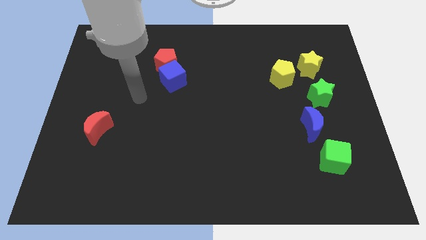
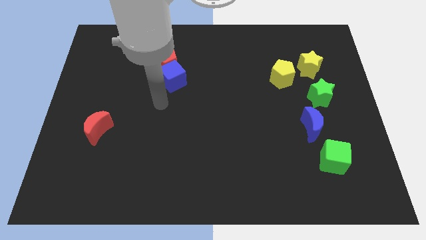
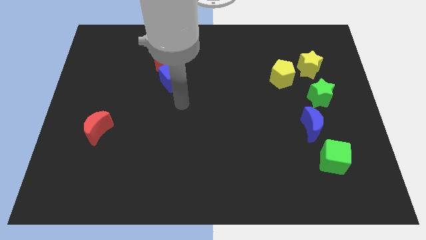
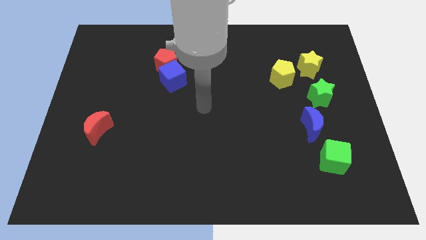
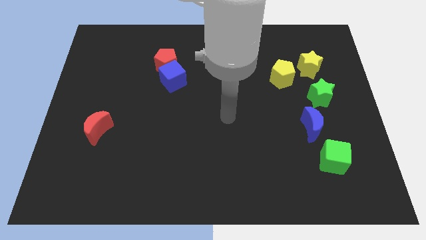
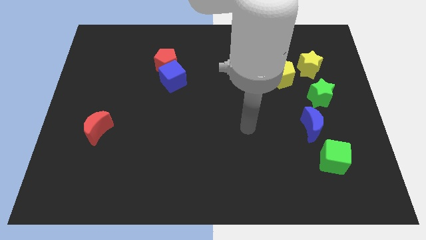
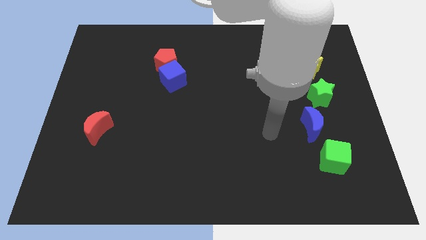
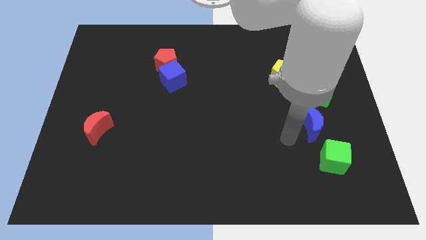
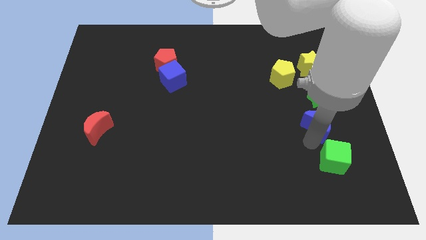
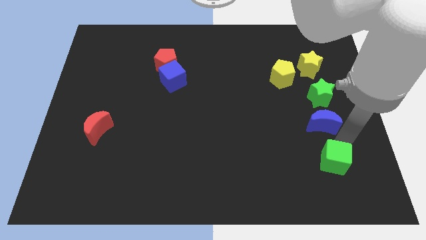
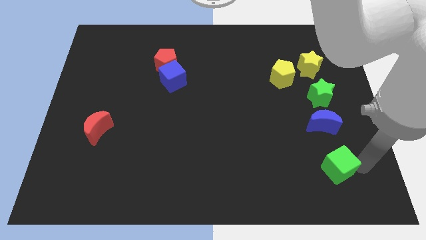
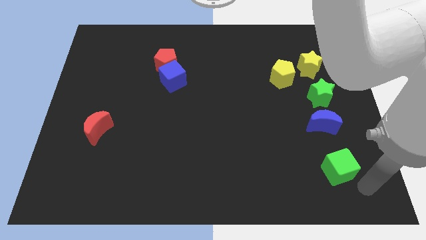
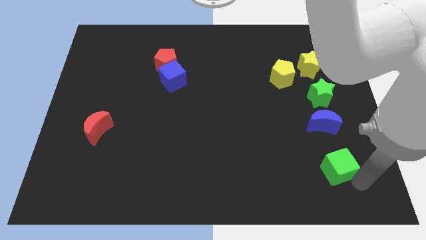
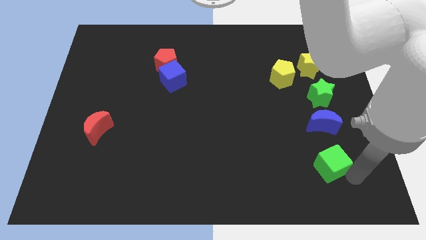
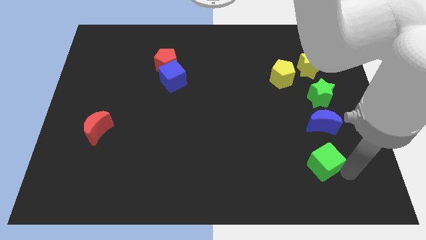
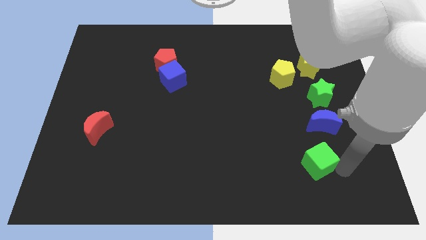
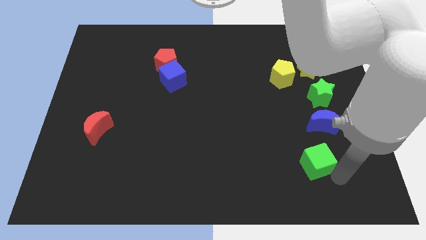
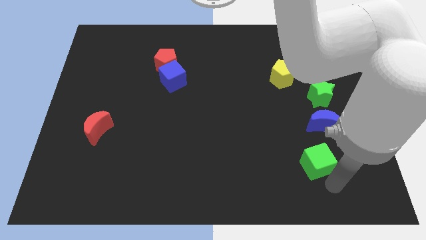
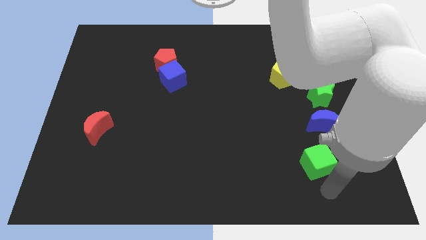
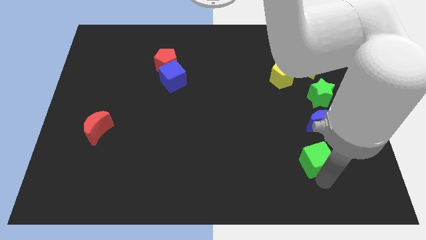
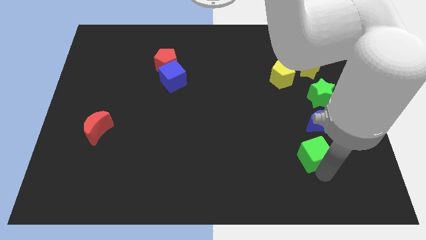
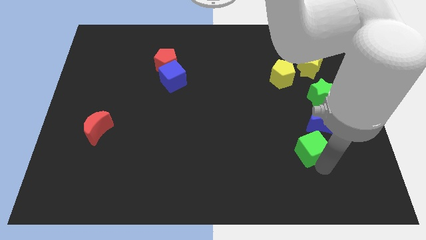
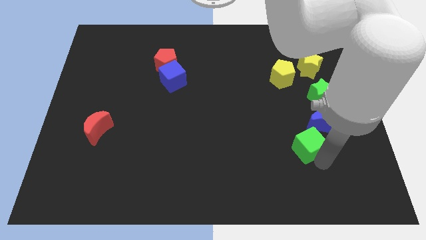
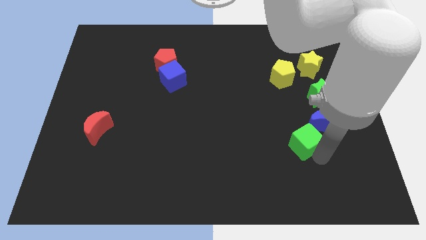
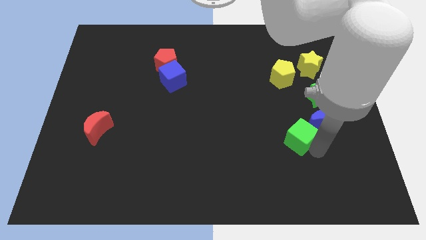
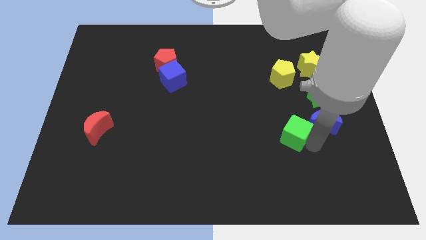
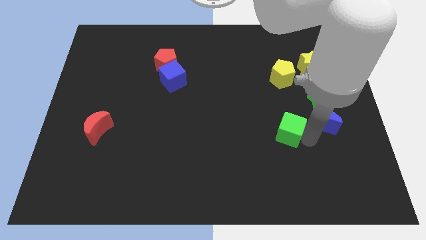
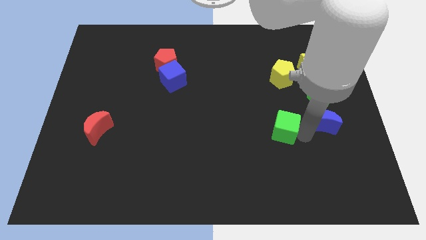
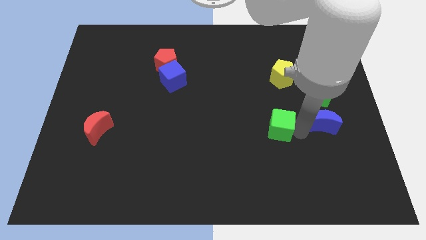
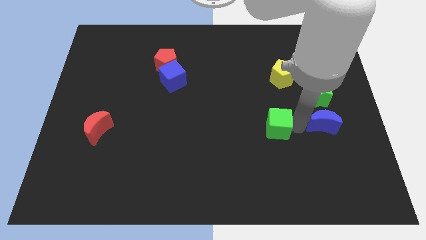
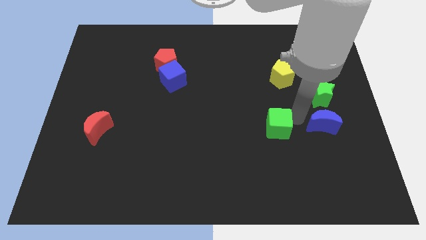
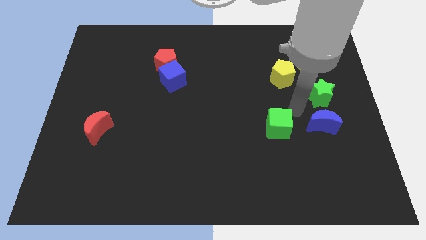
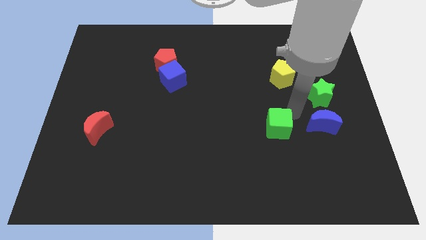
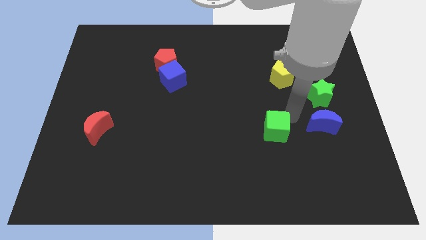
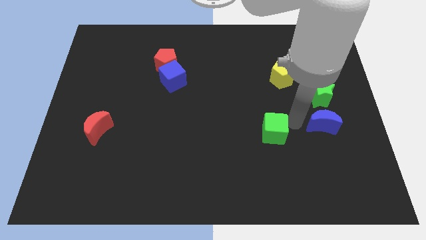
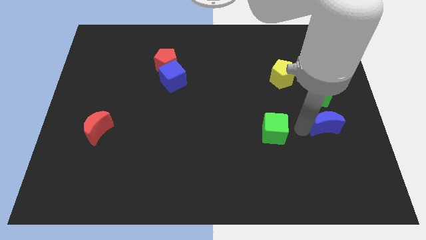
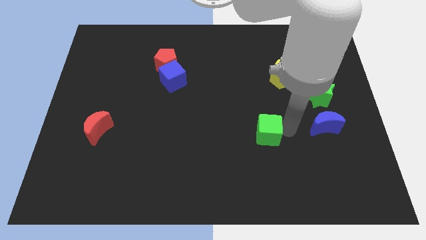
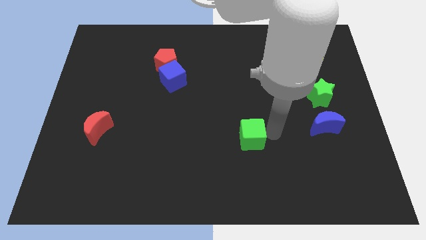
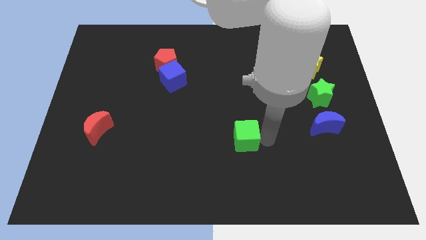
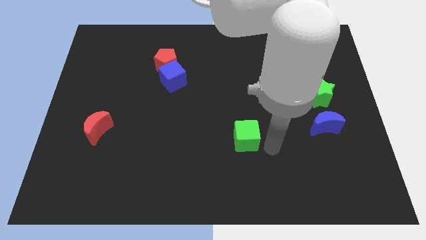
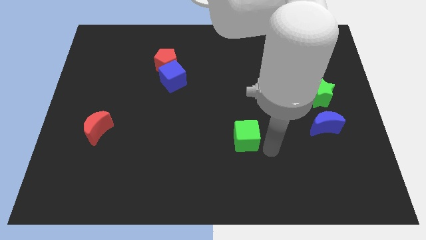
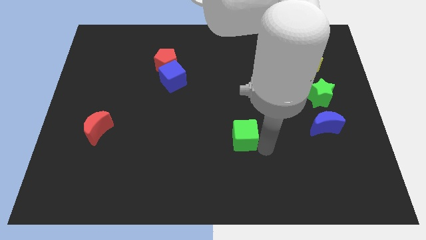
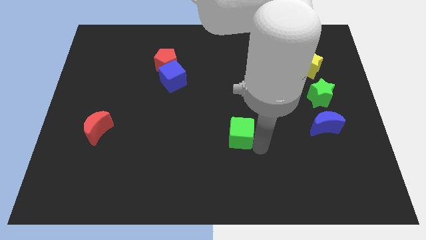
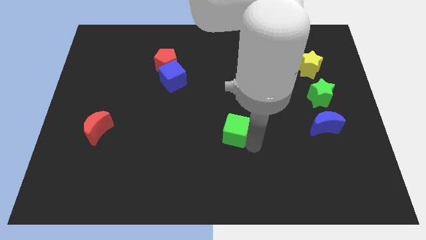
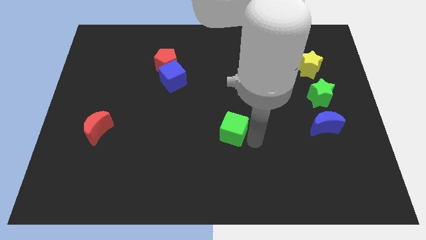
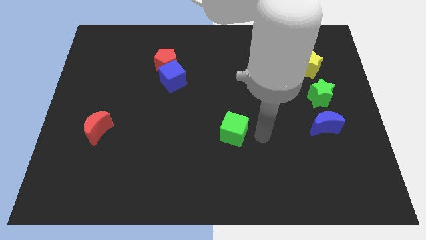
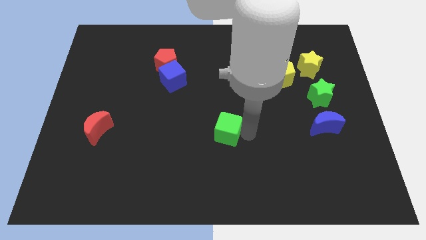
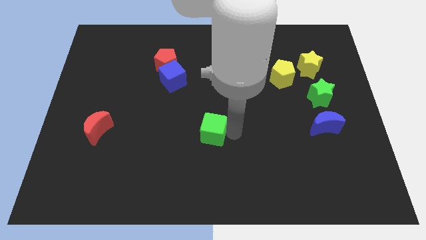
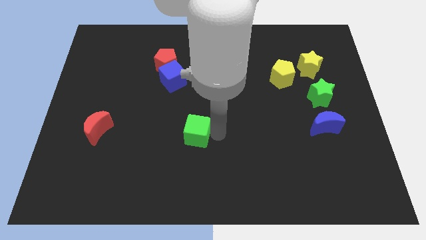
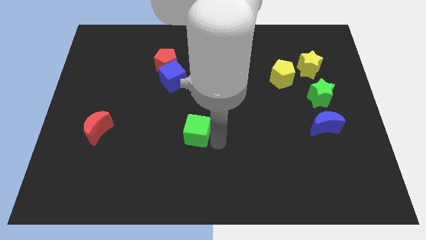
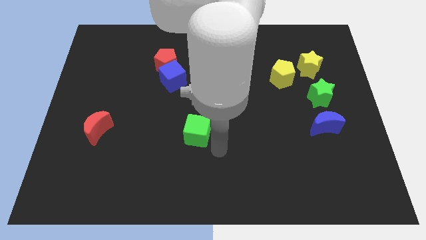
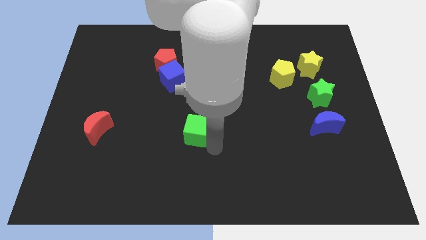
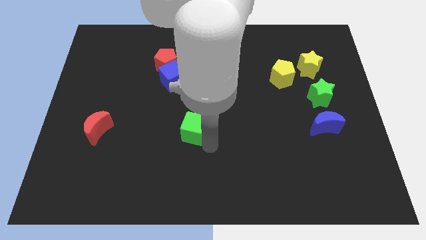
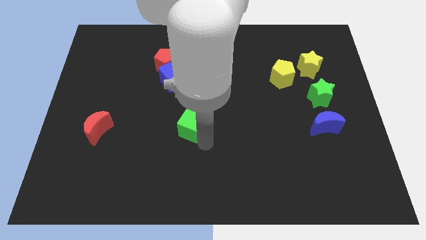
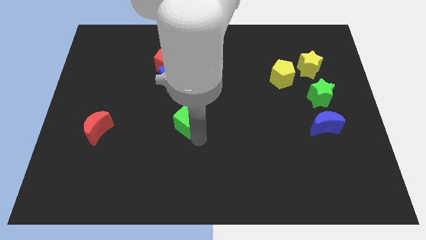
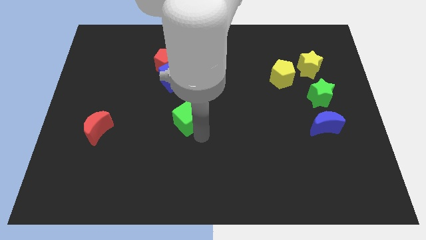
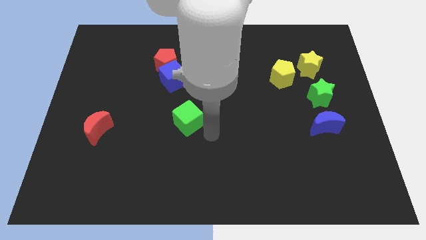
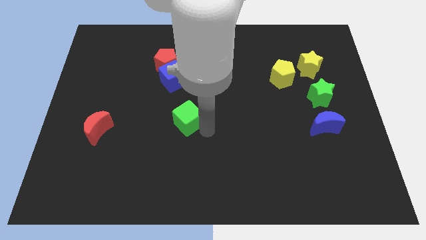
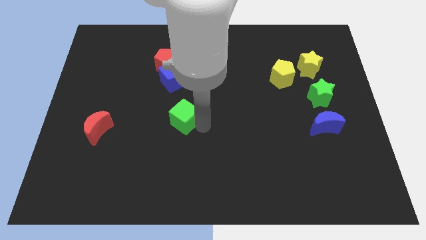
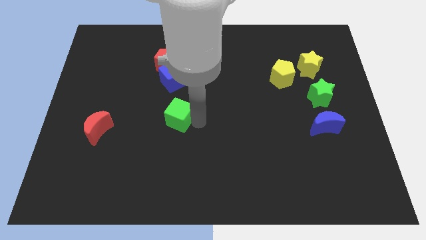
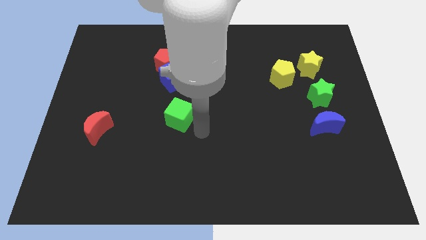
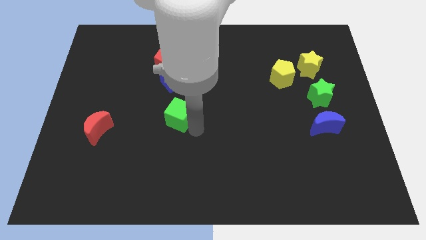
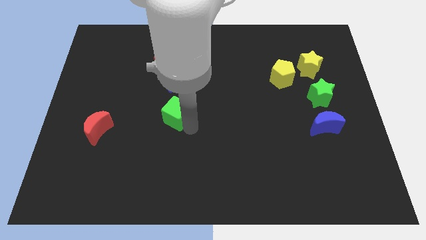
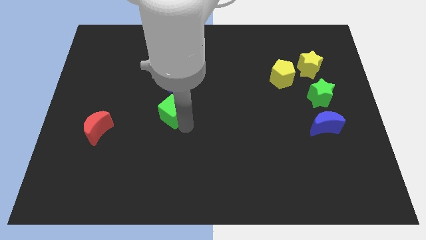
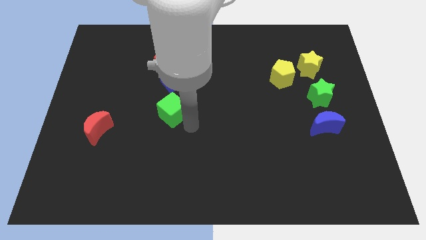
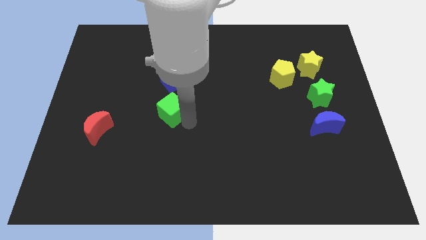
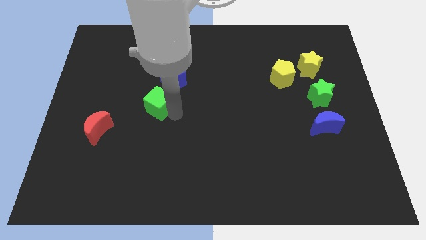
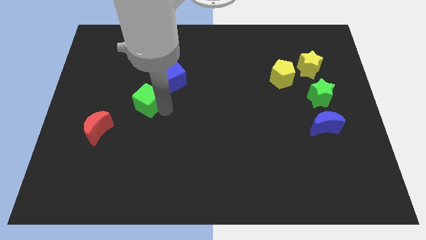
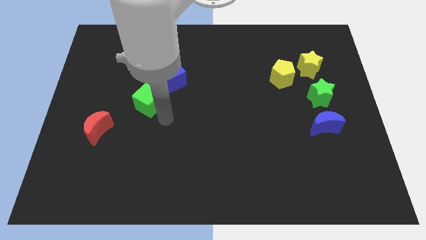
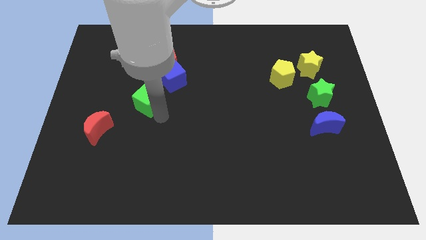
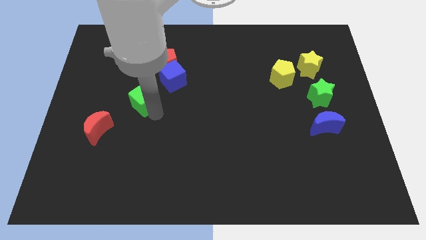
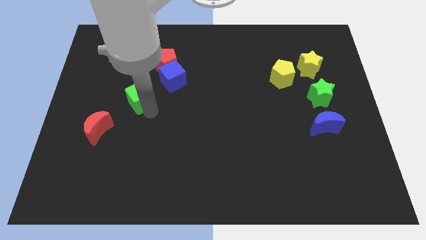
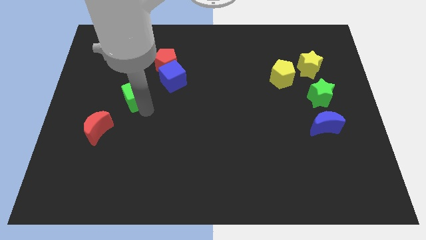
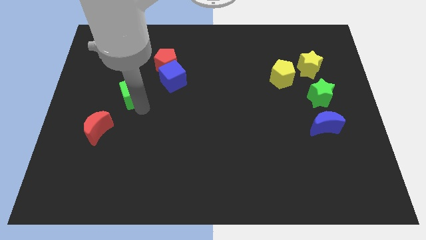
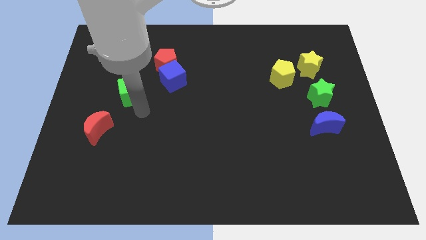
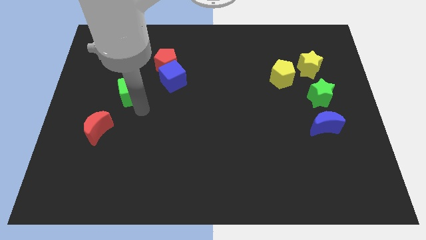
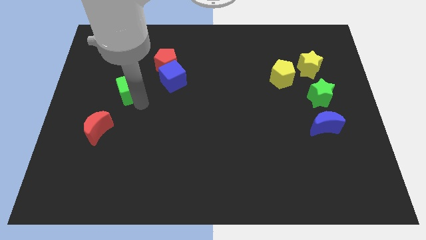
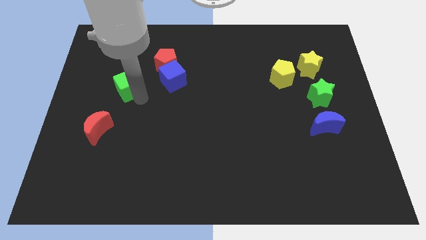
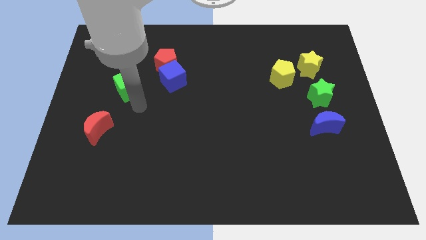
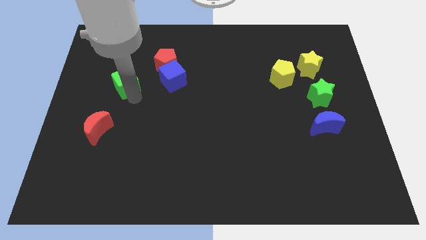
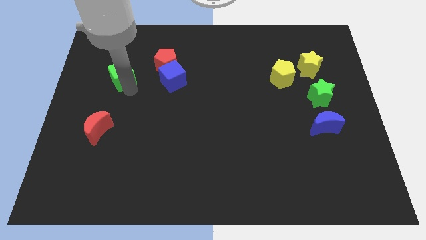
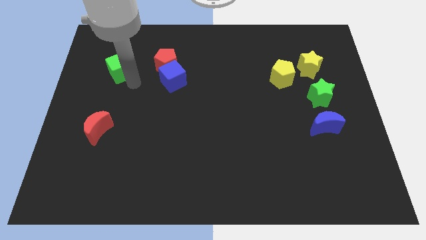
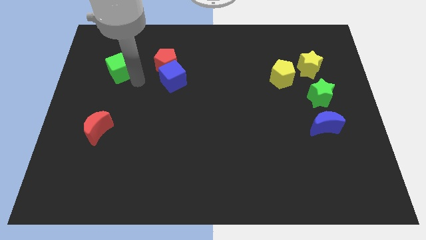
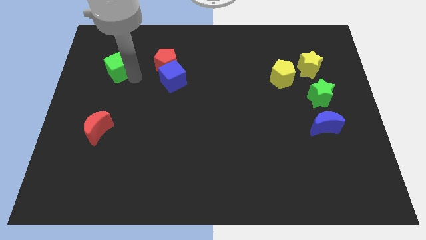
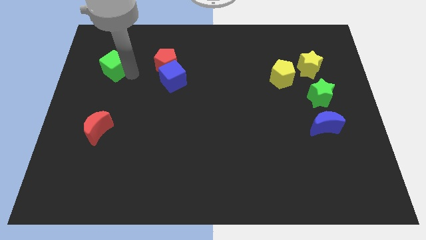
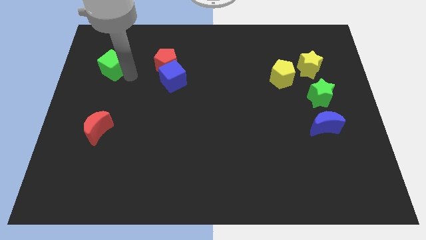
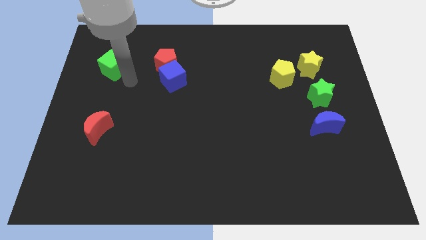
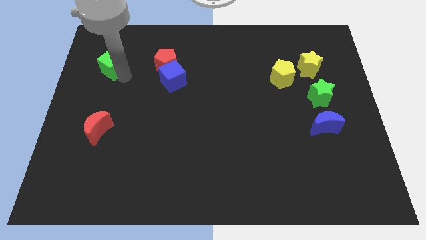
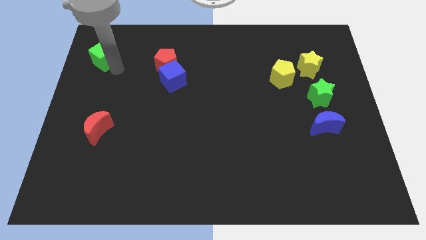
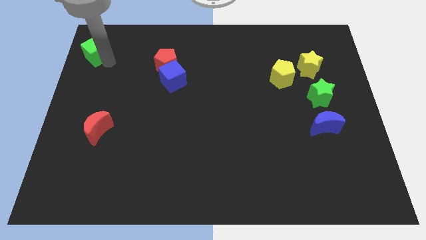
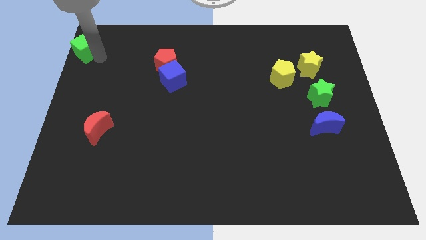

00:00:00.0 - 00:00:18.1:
move the green cube to the top left of the board
